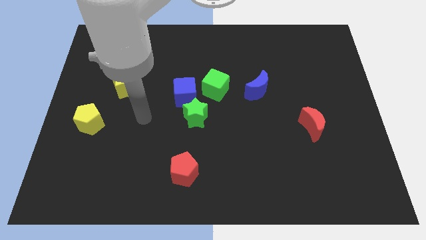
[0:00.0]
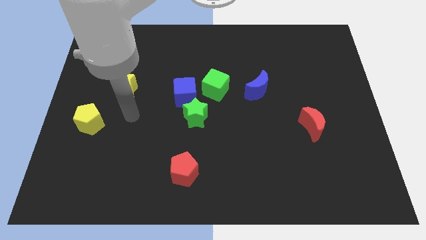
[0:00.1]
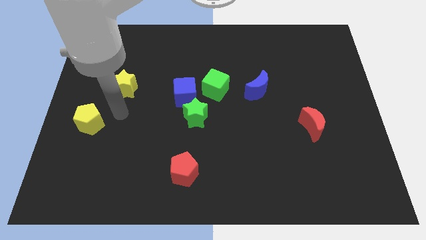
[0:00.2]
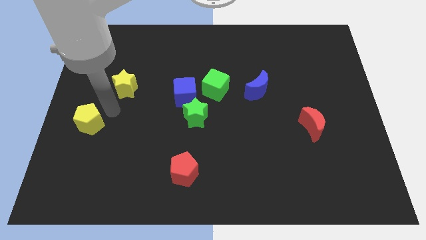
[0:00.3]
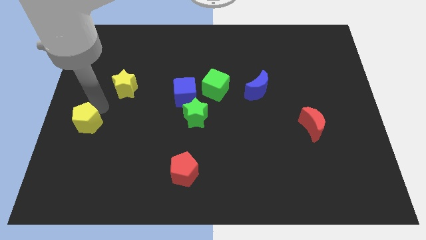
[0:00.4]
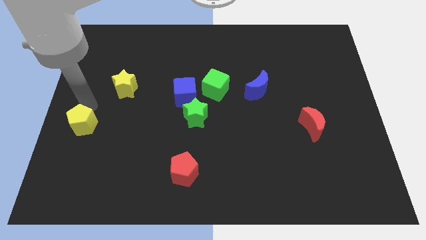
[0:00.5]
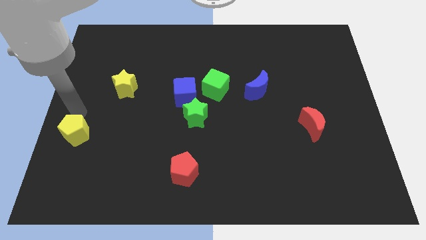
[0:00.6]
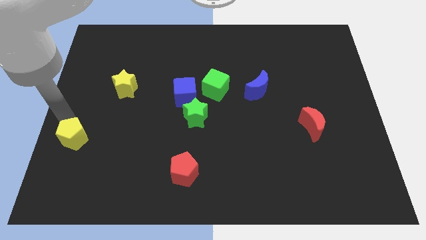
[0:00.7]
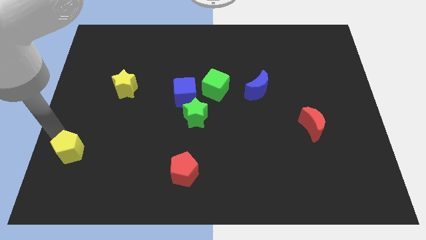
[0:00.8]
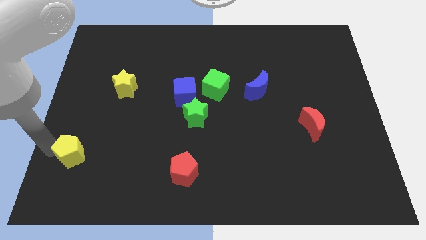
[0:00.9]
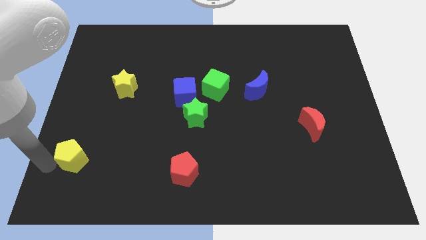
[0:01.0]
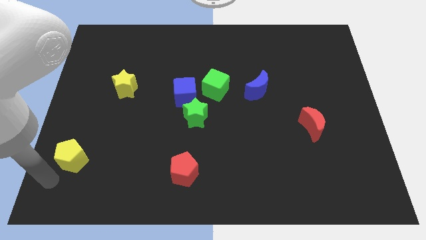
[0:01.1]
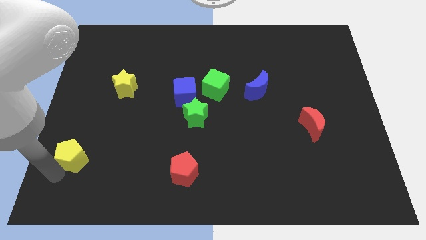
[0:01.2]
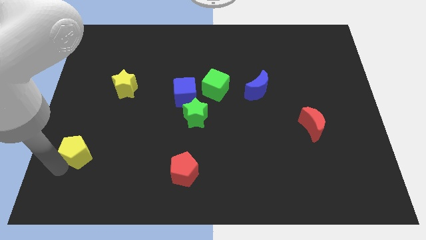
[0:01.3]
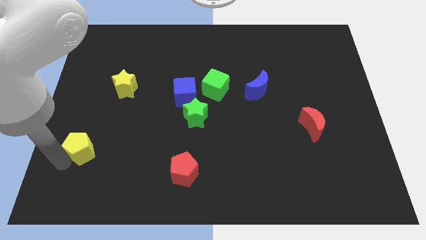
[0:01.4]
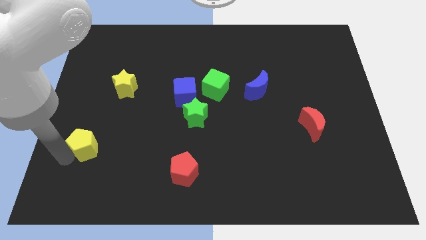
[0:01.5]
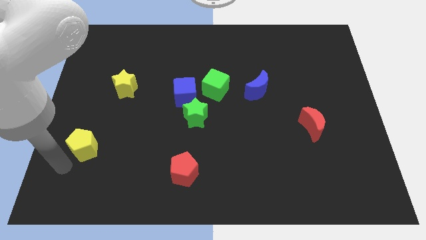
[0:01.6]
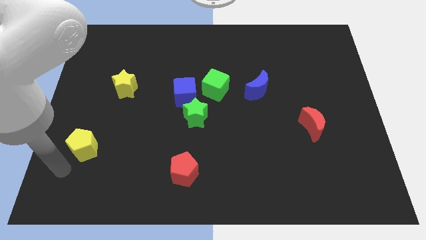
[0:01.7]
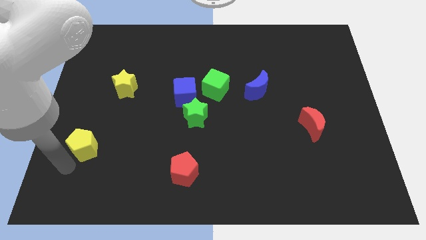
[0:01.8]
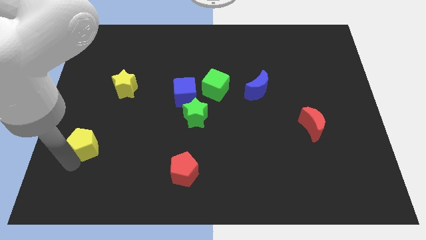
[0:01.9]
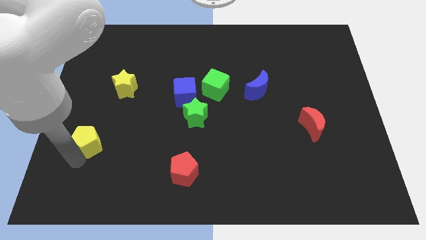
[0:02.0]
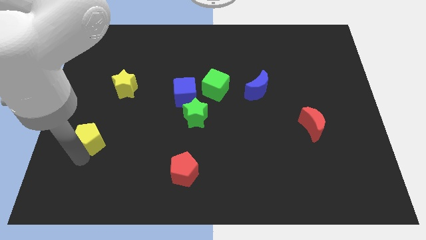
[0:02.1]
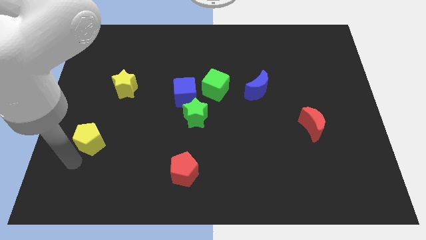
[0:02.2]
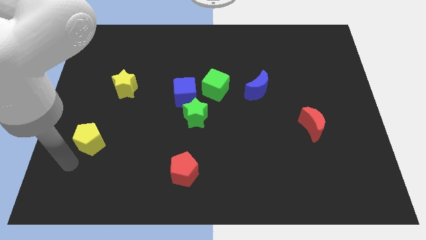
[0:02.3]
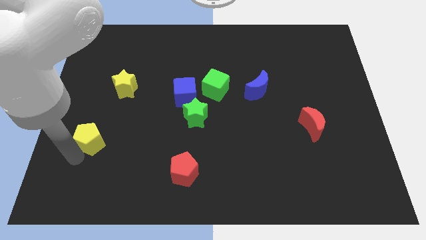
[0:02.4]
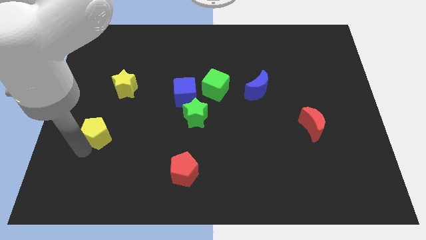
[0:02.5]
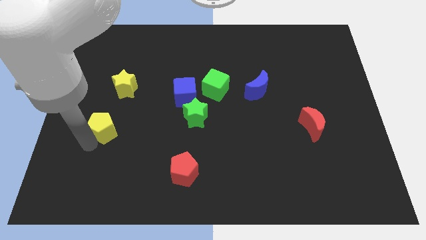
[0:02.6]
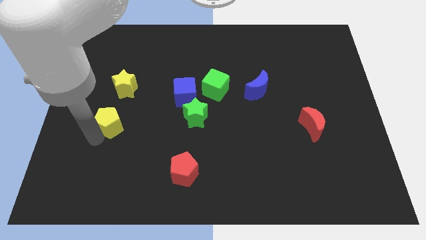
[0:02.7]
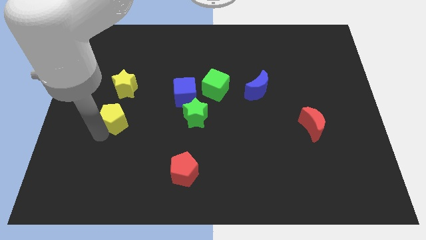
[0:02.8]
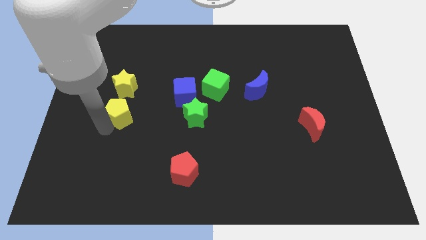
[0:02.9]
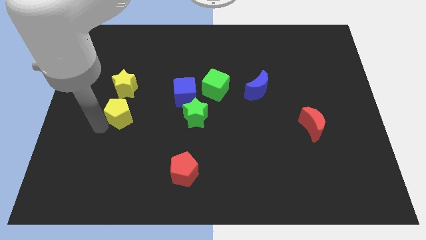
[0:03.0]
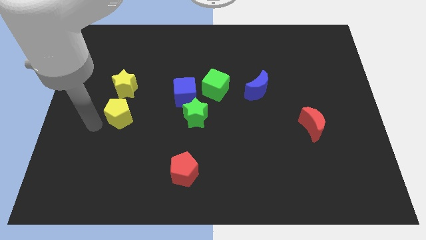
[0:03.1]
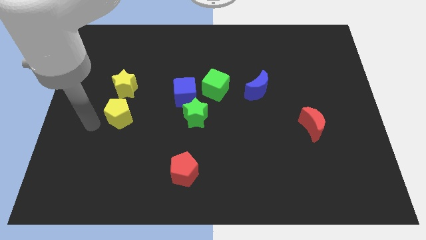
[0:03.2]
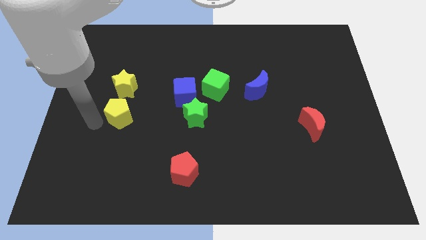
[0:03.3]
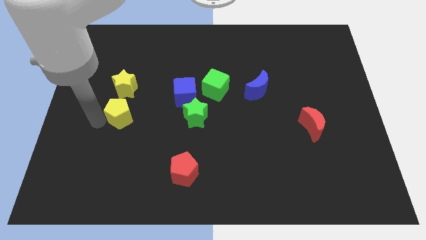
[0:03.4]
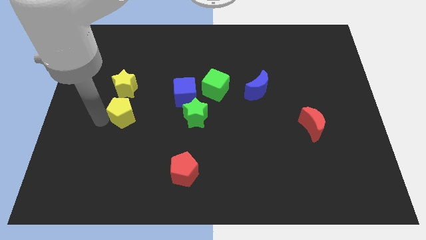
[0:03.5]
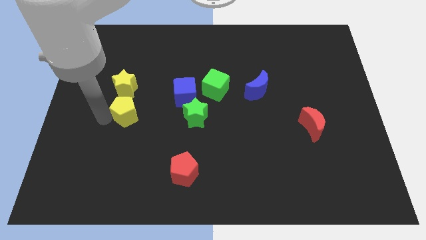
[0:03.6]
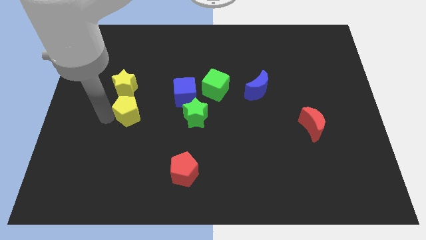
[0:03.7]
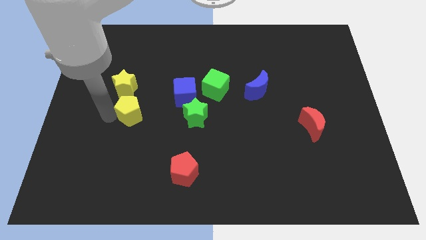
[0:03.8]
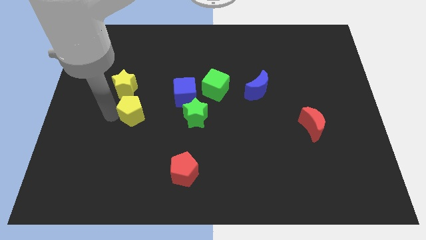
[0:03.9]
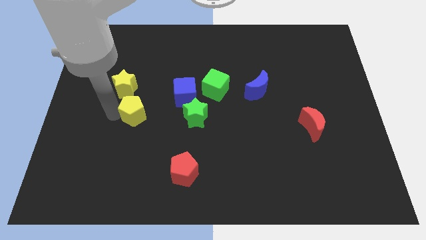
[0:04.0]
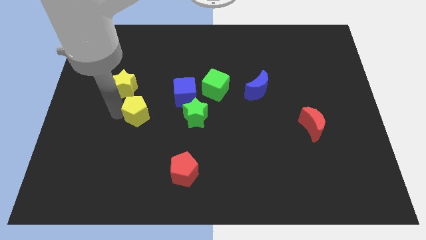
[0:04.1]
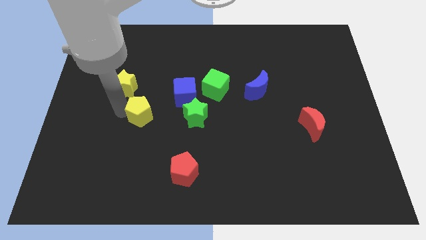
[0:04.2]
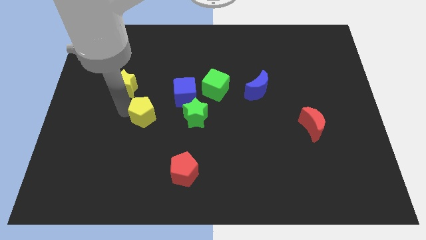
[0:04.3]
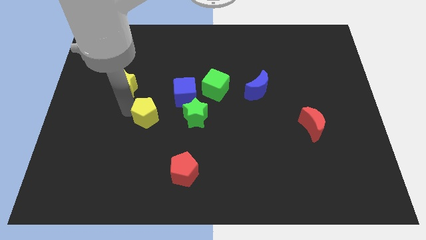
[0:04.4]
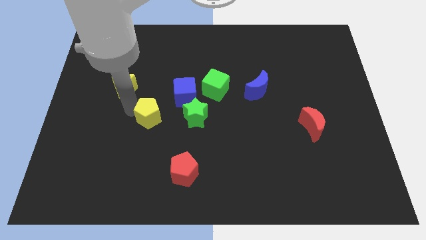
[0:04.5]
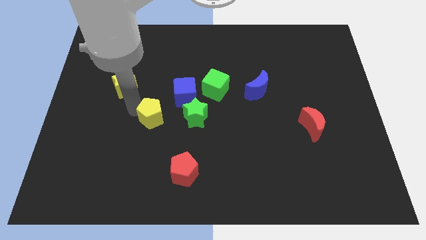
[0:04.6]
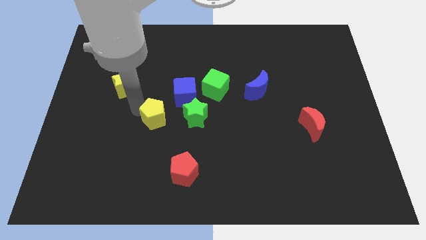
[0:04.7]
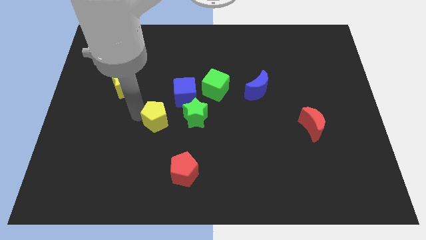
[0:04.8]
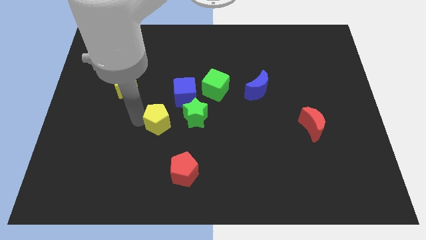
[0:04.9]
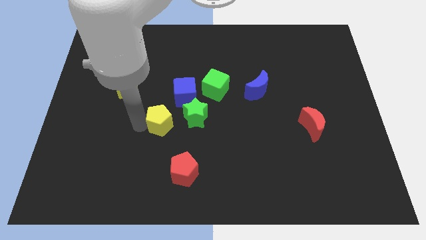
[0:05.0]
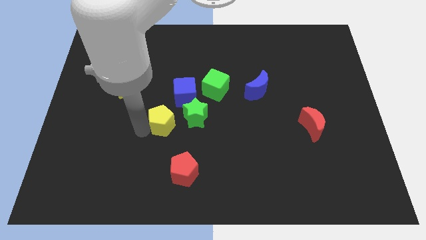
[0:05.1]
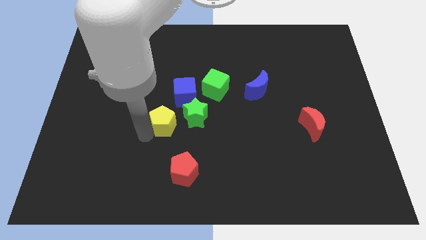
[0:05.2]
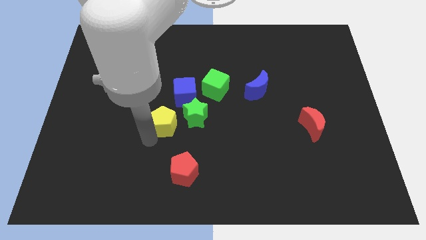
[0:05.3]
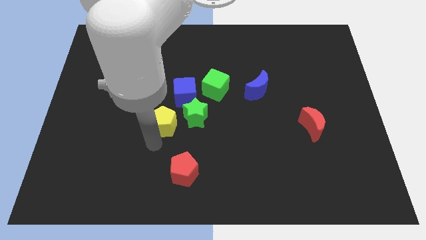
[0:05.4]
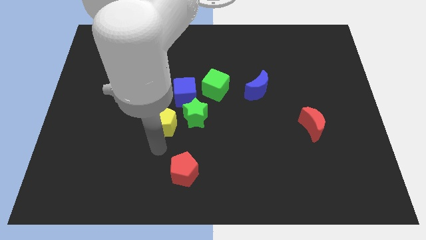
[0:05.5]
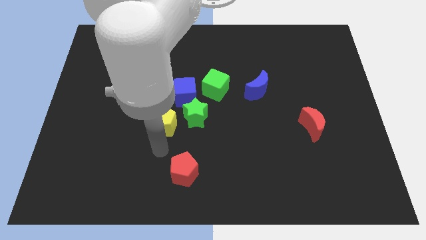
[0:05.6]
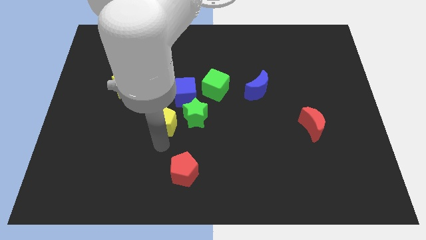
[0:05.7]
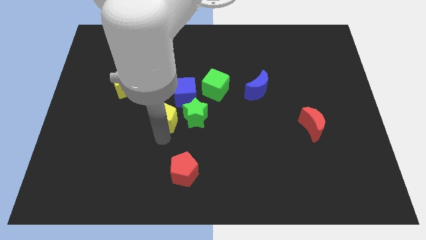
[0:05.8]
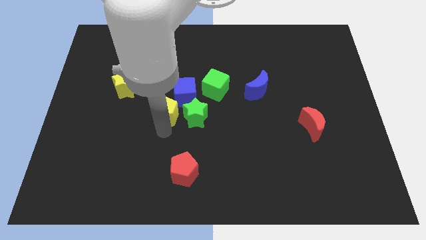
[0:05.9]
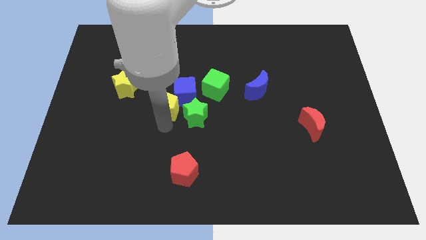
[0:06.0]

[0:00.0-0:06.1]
push the yellow pentagon next to the blue cube

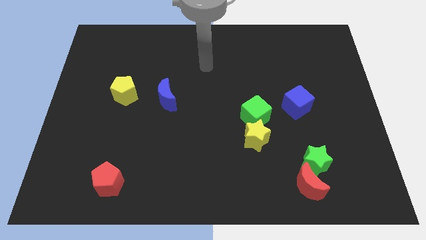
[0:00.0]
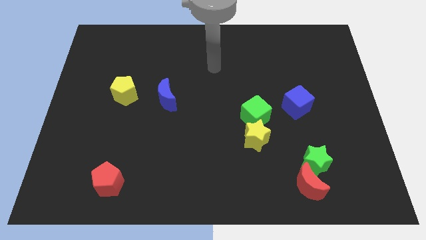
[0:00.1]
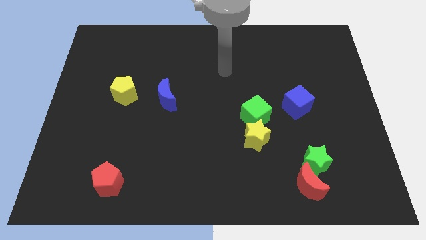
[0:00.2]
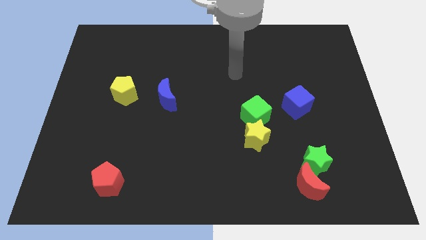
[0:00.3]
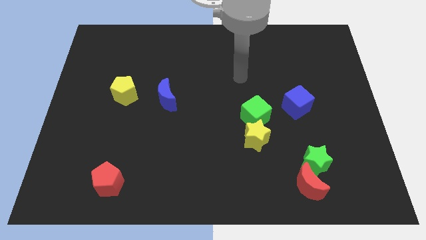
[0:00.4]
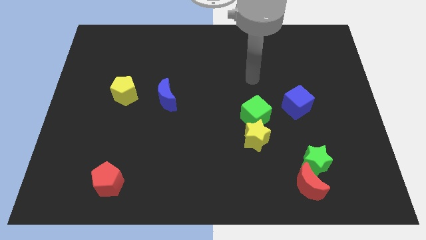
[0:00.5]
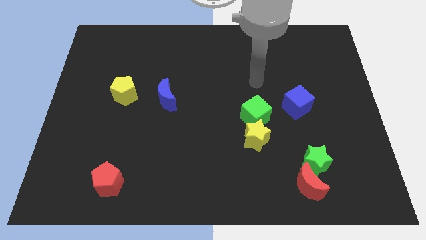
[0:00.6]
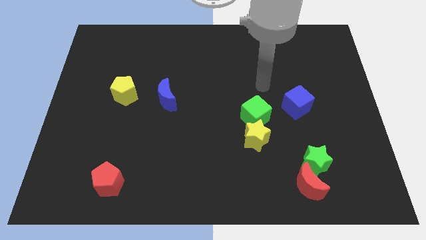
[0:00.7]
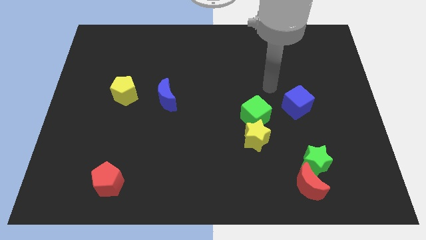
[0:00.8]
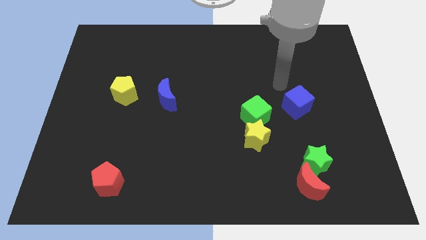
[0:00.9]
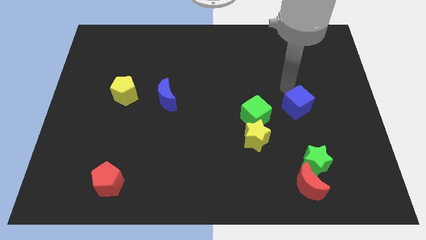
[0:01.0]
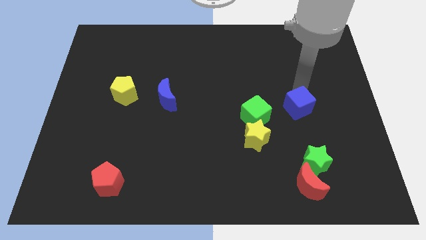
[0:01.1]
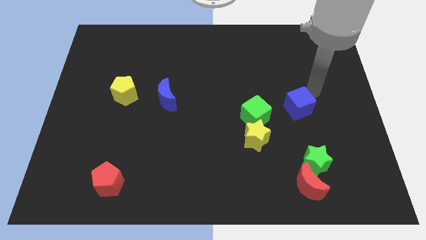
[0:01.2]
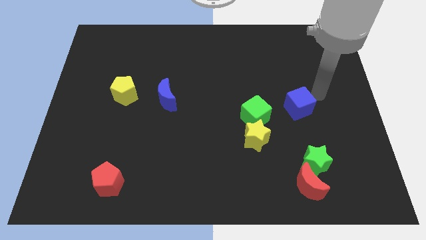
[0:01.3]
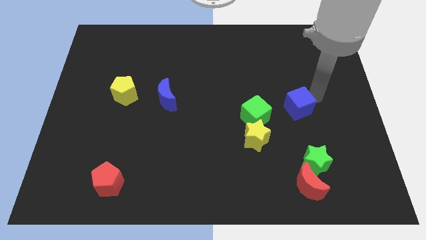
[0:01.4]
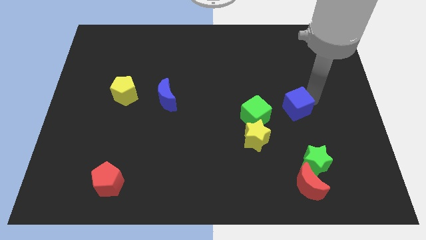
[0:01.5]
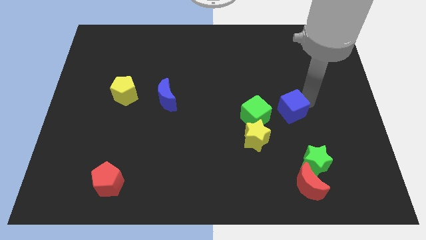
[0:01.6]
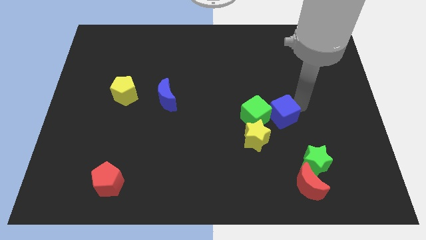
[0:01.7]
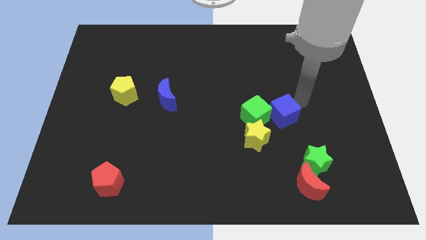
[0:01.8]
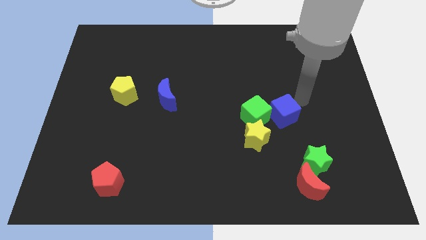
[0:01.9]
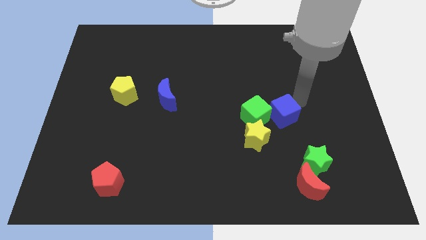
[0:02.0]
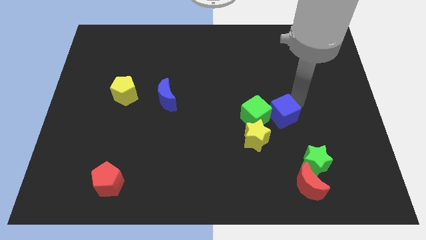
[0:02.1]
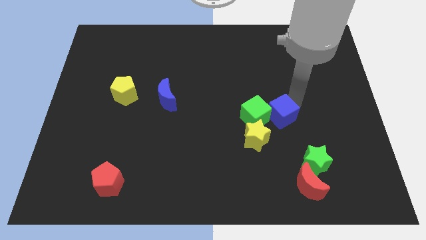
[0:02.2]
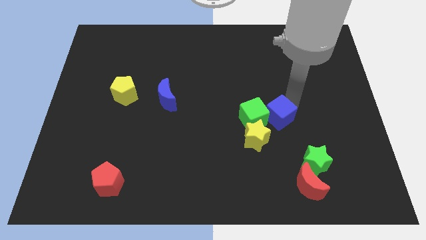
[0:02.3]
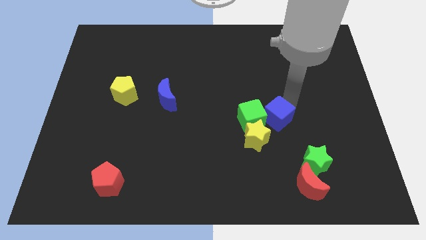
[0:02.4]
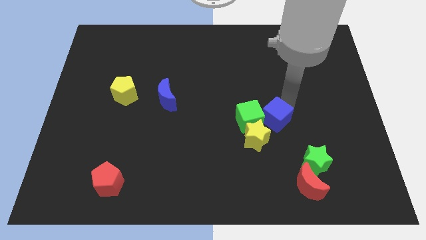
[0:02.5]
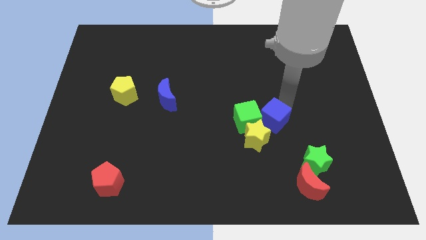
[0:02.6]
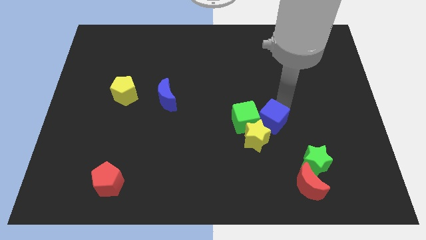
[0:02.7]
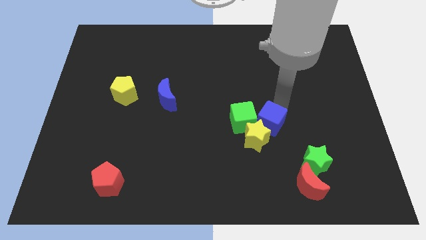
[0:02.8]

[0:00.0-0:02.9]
slide the blue cube towards the yellow star
